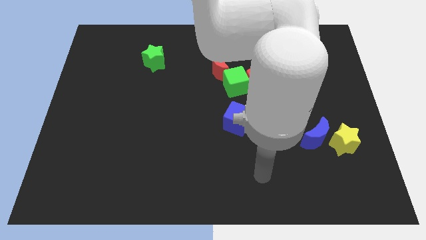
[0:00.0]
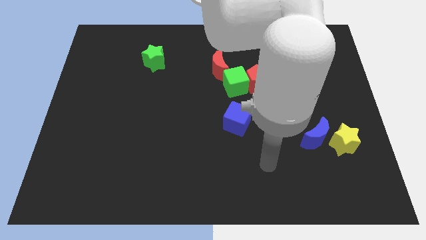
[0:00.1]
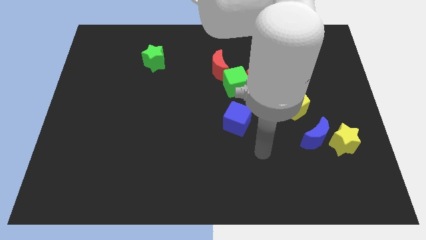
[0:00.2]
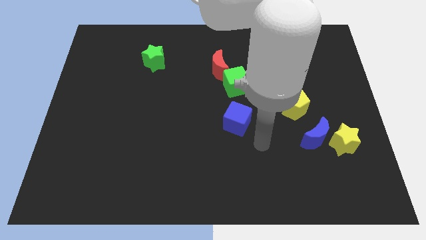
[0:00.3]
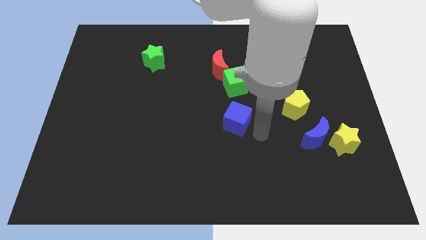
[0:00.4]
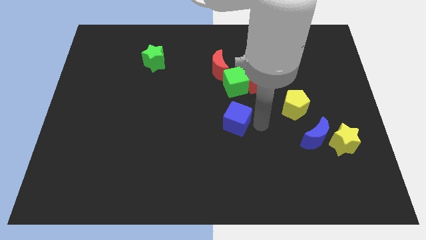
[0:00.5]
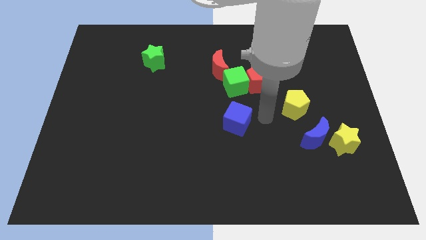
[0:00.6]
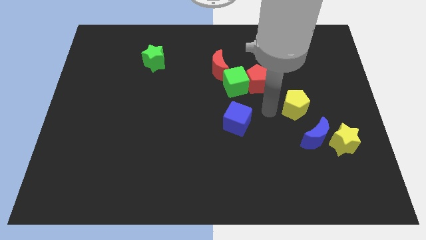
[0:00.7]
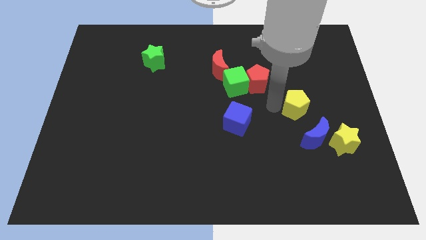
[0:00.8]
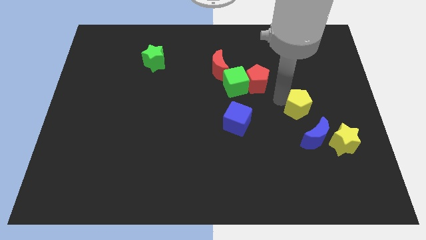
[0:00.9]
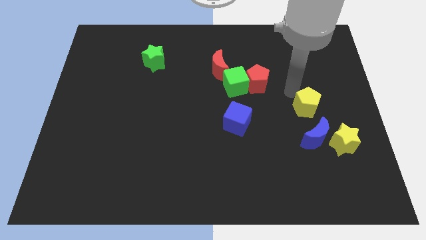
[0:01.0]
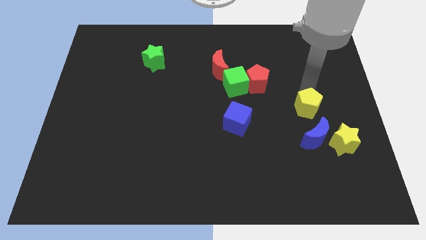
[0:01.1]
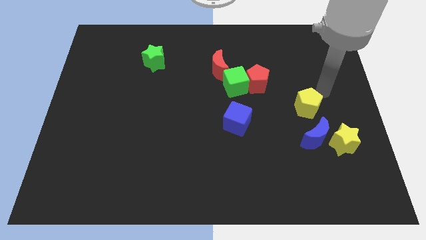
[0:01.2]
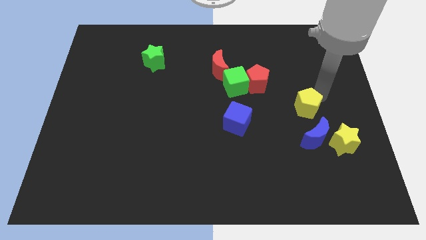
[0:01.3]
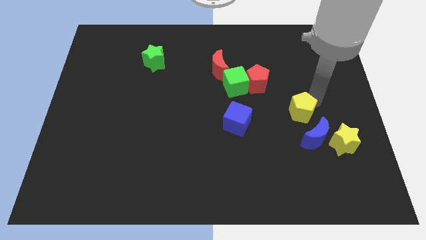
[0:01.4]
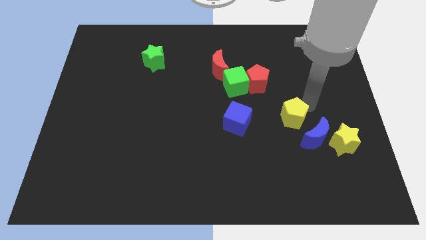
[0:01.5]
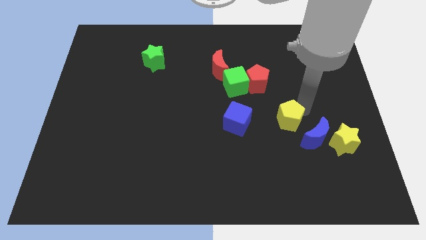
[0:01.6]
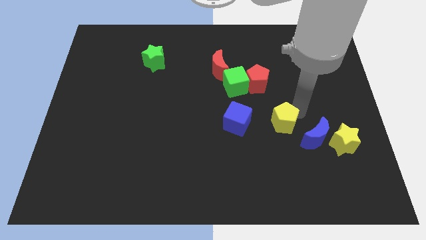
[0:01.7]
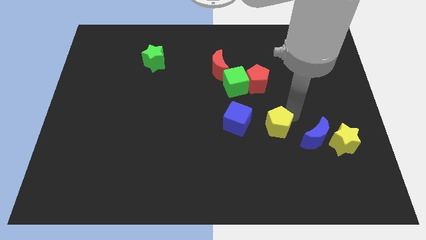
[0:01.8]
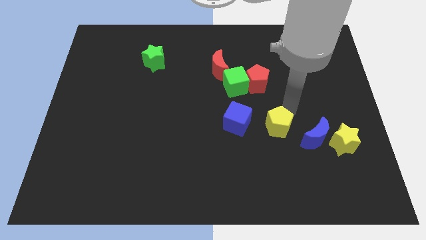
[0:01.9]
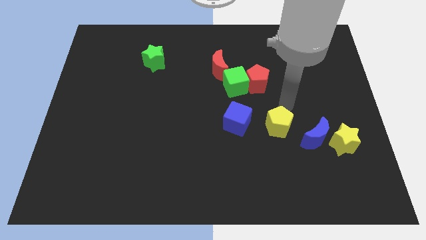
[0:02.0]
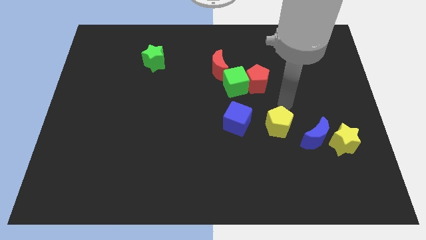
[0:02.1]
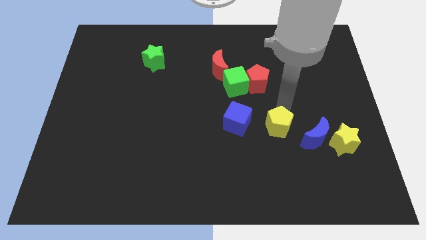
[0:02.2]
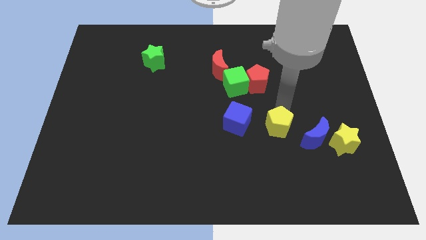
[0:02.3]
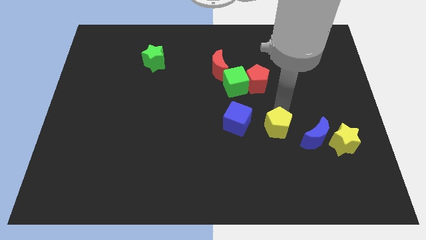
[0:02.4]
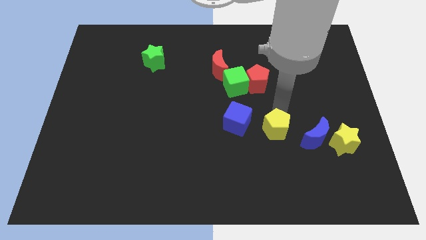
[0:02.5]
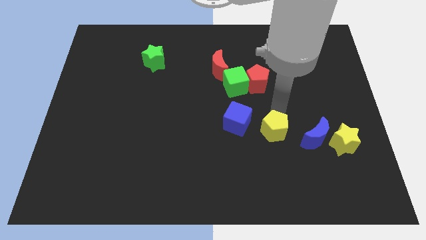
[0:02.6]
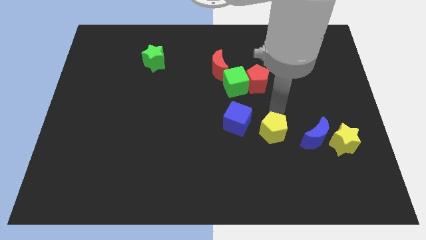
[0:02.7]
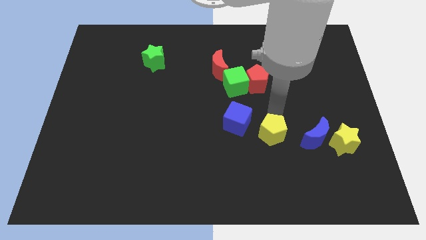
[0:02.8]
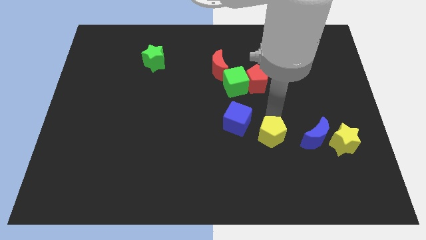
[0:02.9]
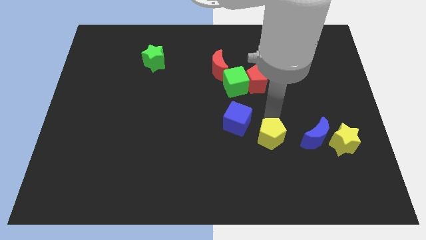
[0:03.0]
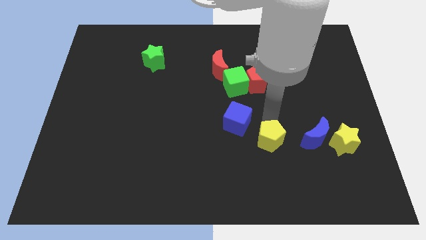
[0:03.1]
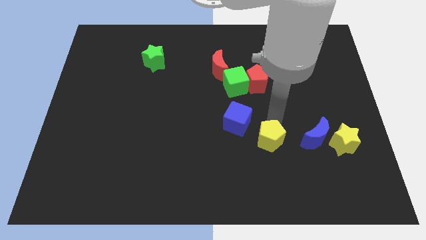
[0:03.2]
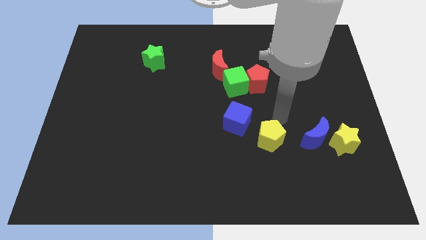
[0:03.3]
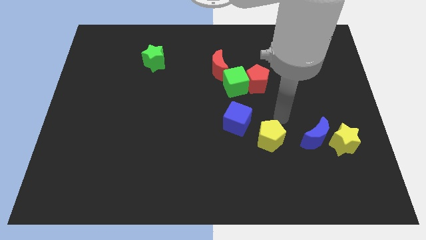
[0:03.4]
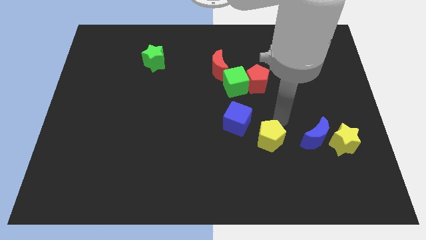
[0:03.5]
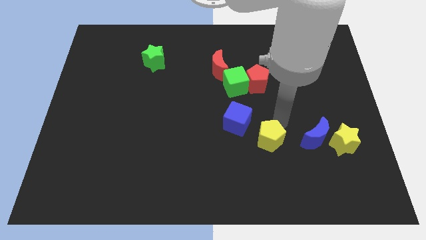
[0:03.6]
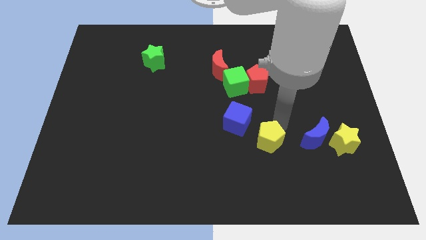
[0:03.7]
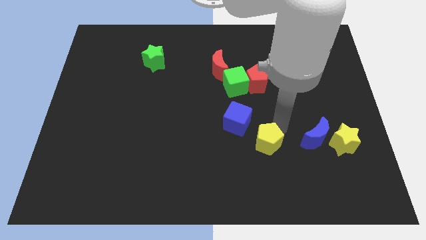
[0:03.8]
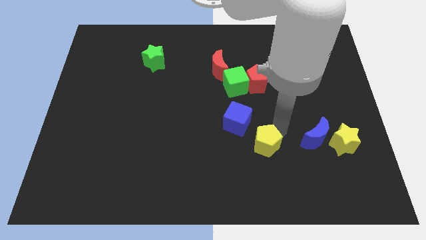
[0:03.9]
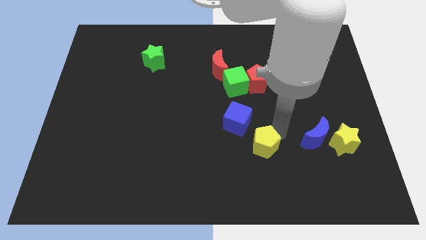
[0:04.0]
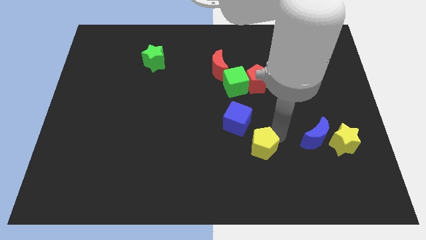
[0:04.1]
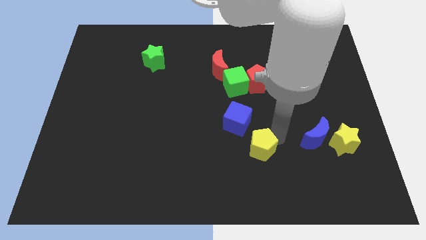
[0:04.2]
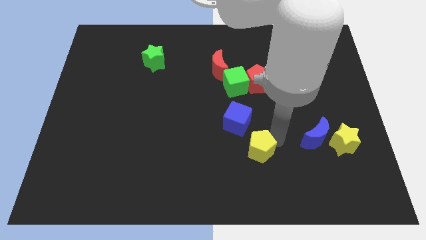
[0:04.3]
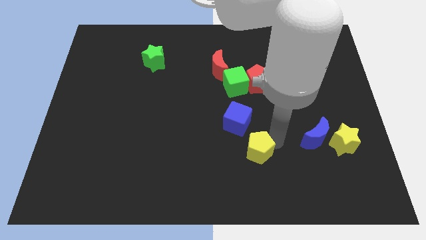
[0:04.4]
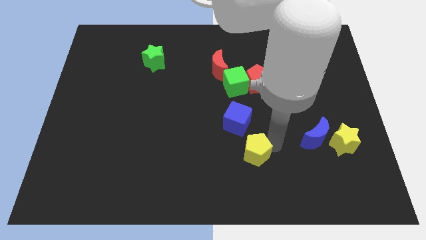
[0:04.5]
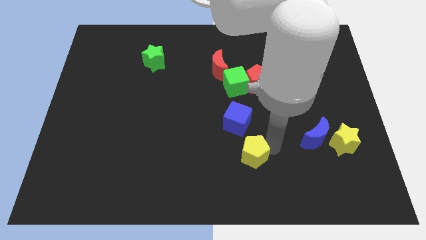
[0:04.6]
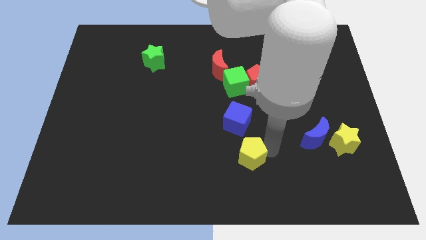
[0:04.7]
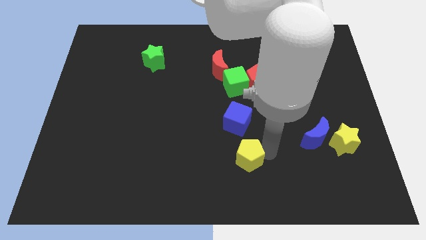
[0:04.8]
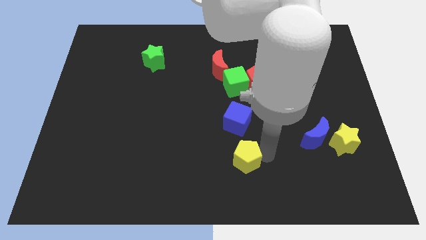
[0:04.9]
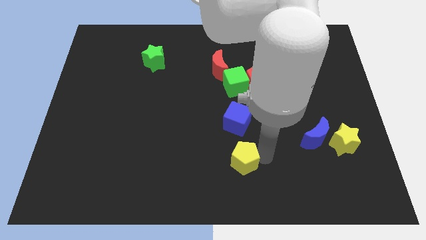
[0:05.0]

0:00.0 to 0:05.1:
push the yellow pentagon to the bottom

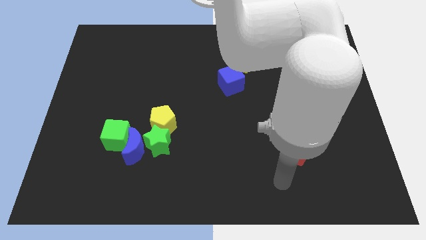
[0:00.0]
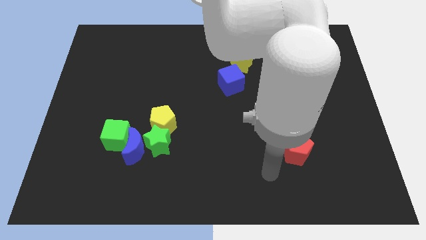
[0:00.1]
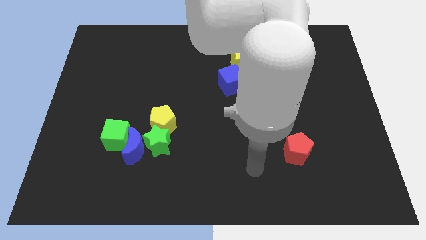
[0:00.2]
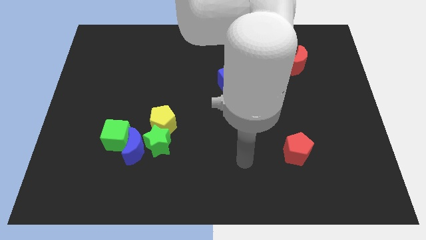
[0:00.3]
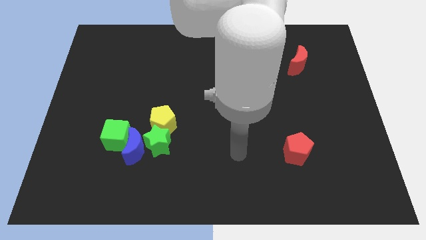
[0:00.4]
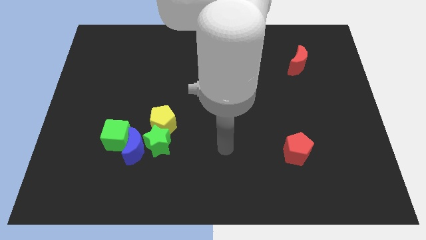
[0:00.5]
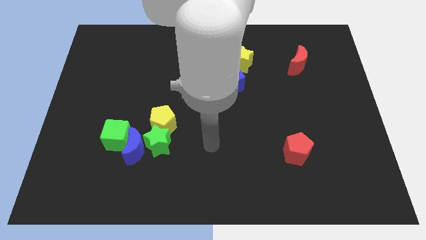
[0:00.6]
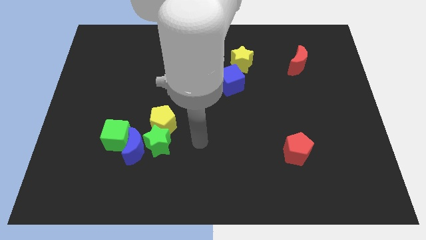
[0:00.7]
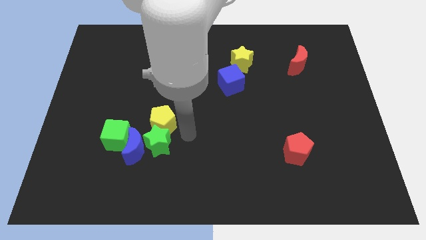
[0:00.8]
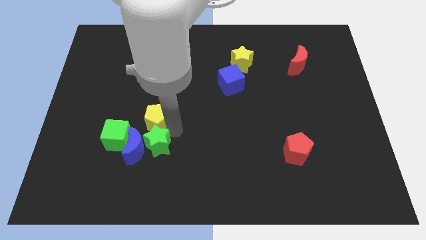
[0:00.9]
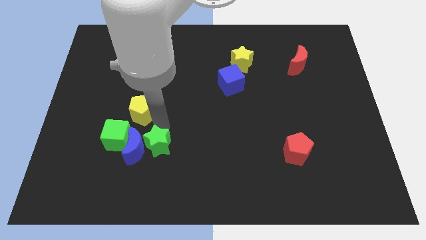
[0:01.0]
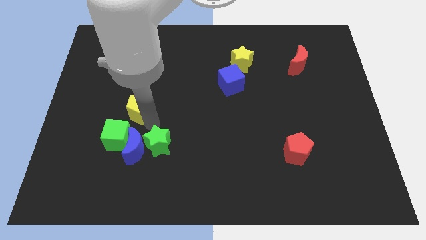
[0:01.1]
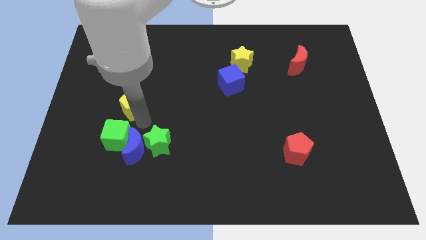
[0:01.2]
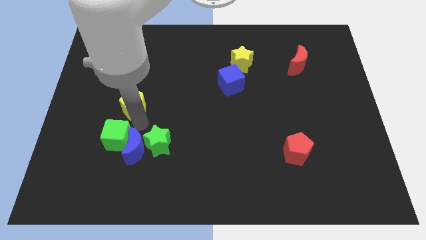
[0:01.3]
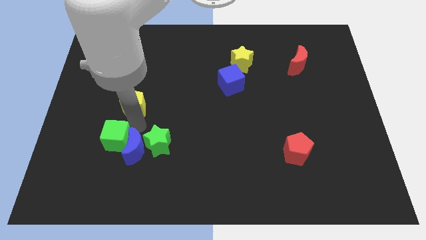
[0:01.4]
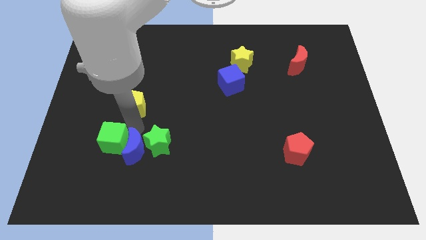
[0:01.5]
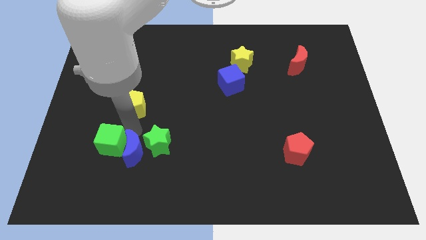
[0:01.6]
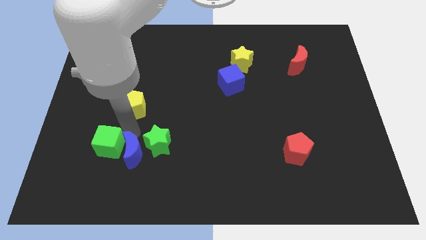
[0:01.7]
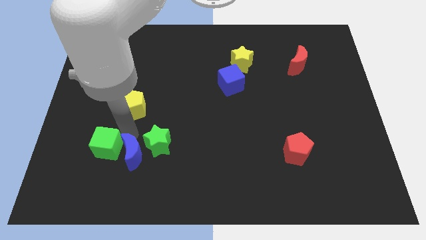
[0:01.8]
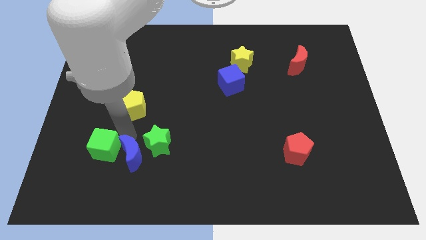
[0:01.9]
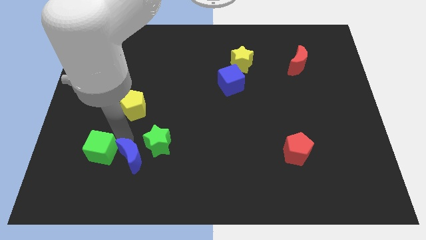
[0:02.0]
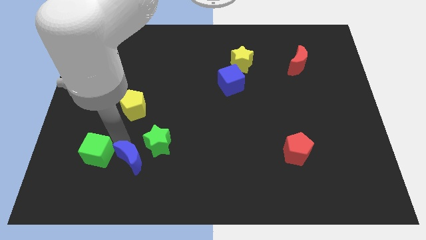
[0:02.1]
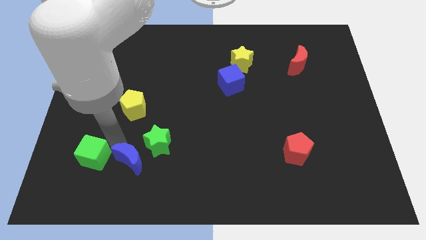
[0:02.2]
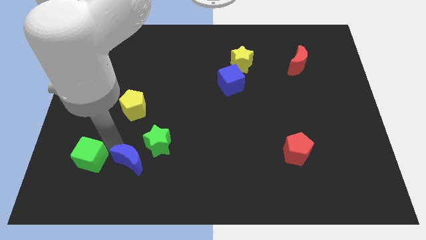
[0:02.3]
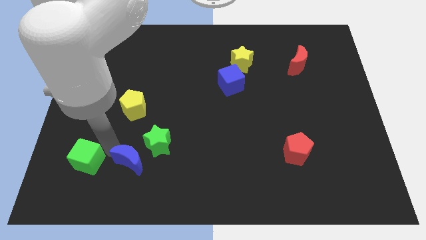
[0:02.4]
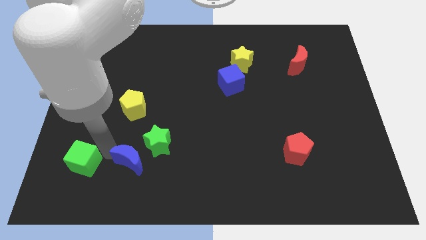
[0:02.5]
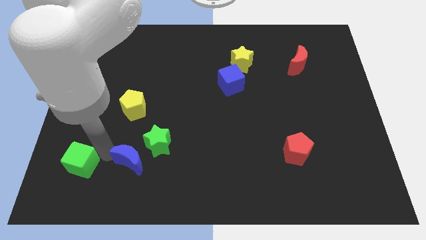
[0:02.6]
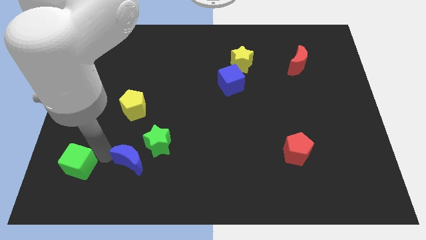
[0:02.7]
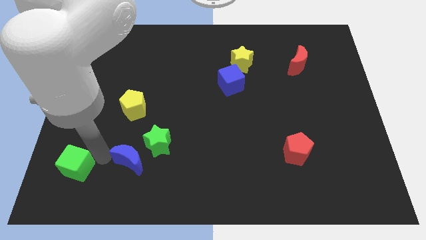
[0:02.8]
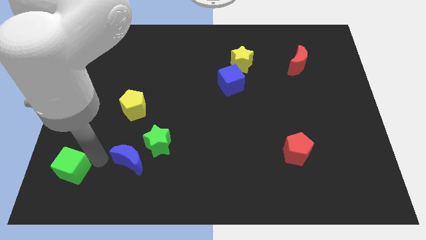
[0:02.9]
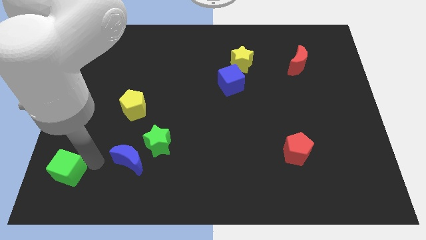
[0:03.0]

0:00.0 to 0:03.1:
move the green cube to the bottom left
